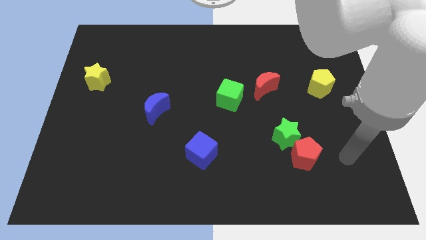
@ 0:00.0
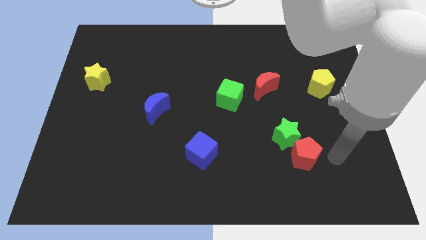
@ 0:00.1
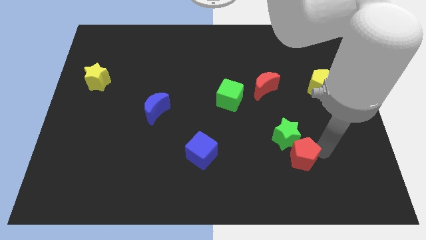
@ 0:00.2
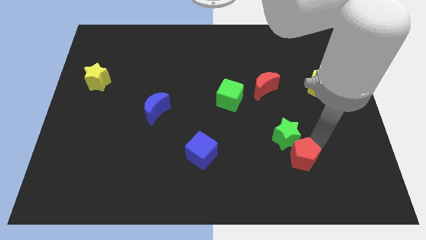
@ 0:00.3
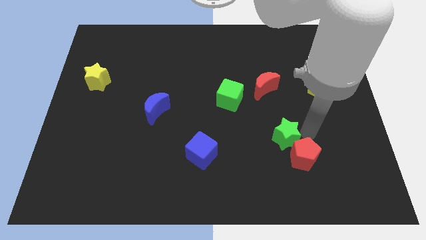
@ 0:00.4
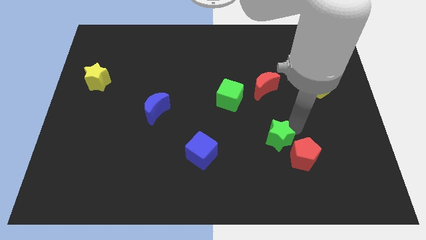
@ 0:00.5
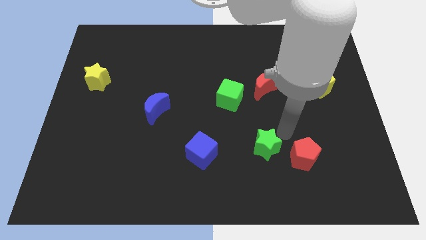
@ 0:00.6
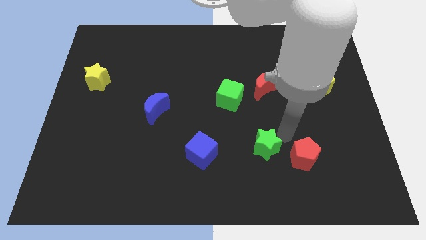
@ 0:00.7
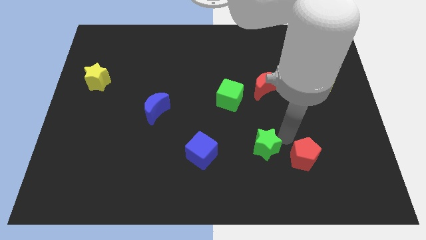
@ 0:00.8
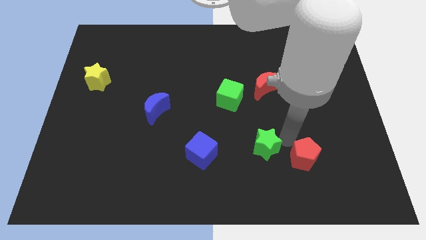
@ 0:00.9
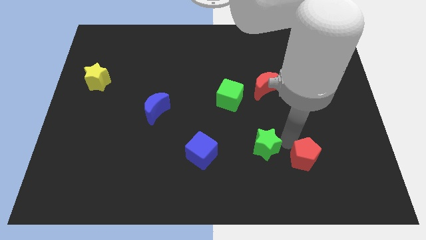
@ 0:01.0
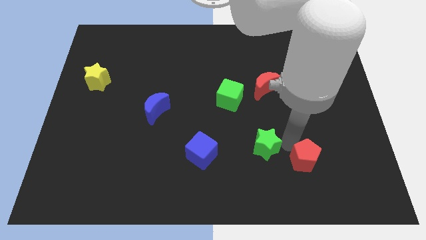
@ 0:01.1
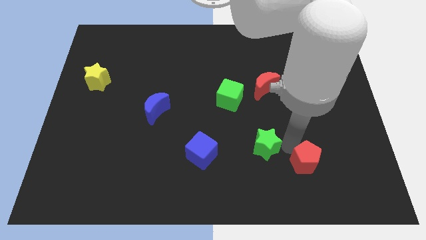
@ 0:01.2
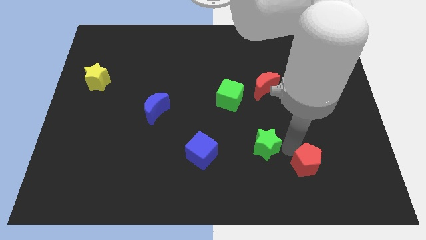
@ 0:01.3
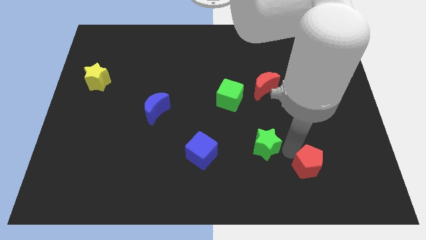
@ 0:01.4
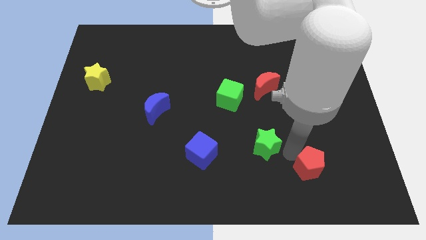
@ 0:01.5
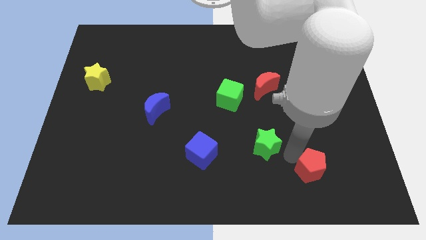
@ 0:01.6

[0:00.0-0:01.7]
pull the red pentagon apart from the green star

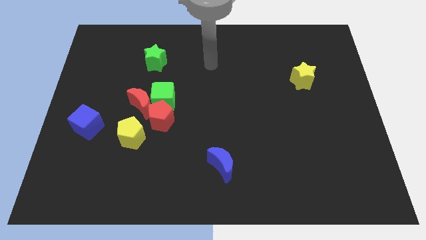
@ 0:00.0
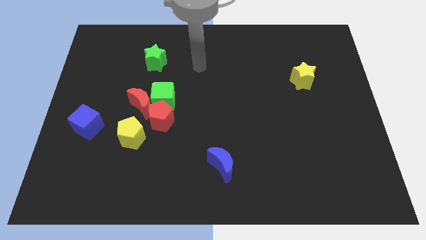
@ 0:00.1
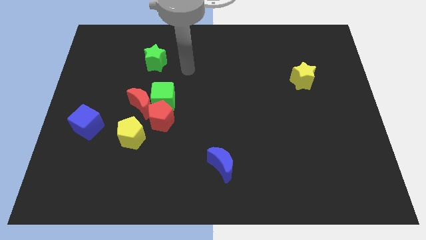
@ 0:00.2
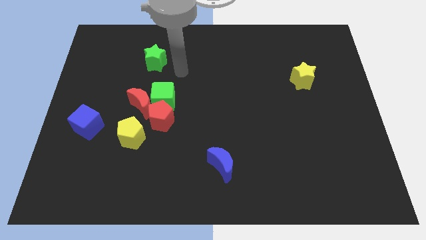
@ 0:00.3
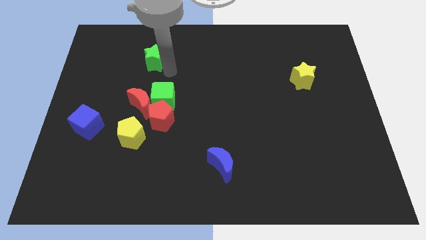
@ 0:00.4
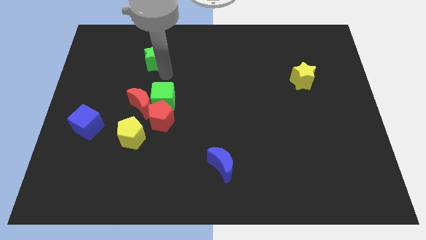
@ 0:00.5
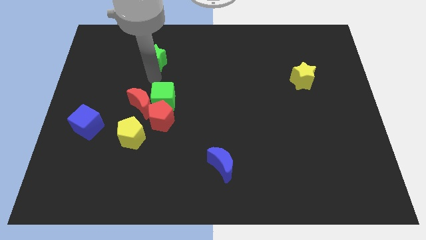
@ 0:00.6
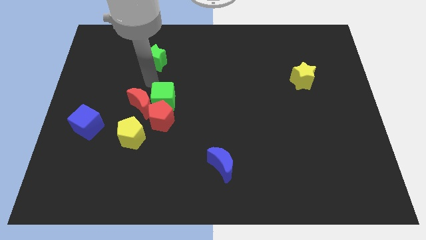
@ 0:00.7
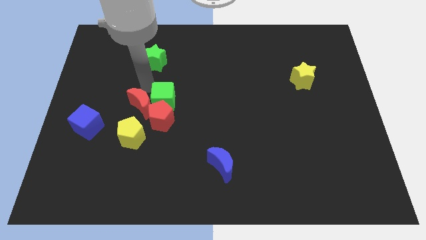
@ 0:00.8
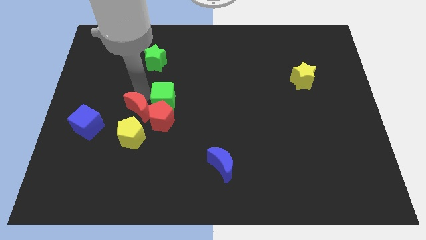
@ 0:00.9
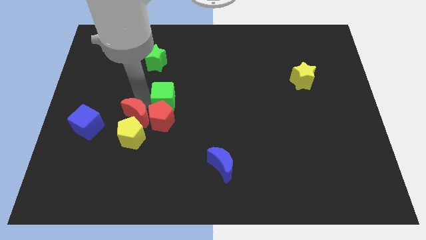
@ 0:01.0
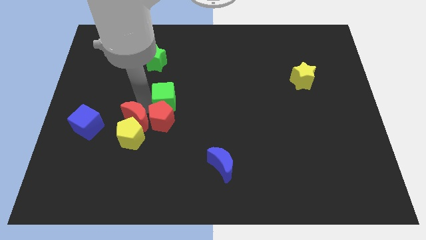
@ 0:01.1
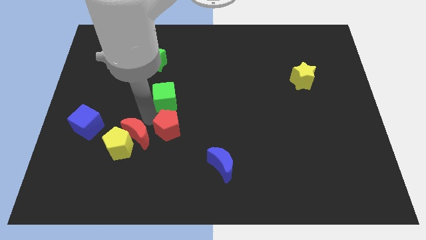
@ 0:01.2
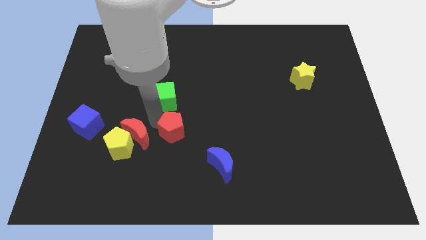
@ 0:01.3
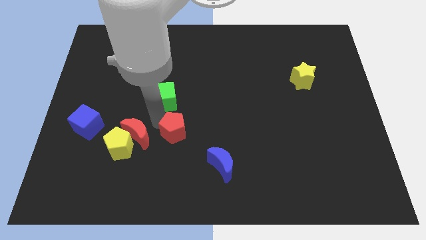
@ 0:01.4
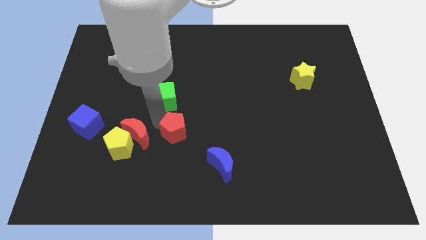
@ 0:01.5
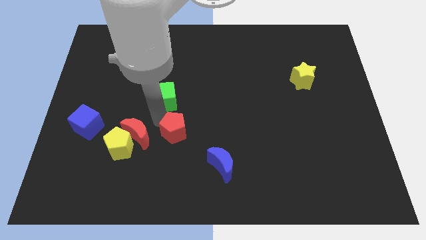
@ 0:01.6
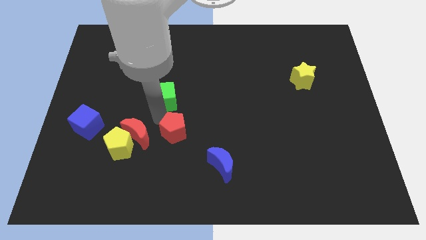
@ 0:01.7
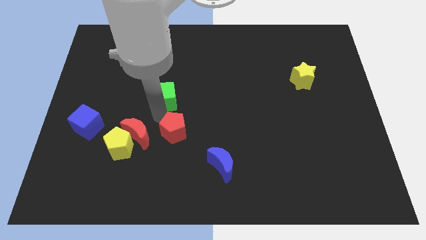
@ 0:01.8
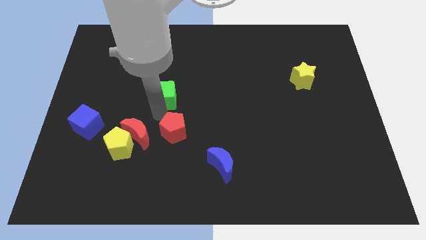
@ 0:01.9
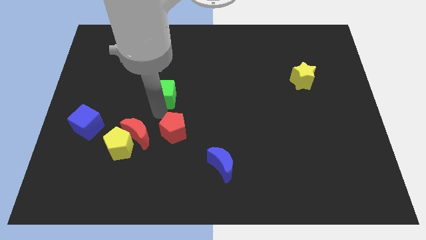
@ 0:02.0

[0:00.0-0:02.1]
move the green cube away from the red moon and red pentagon

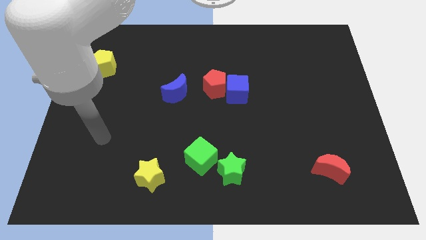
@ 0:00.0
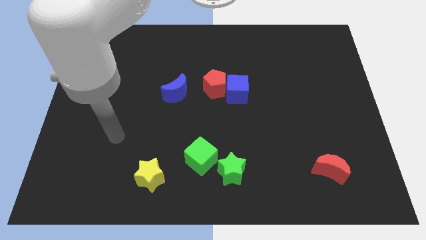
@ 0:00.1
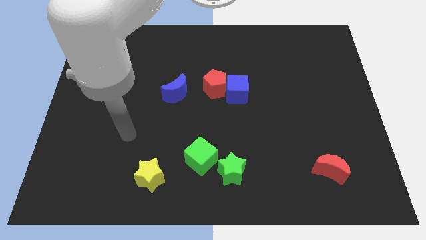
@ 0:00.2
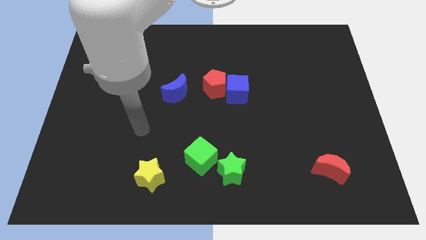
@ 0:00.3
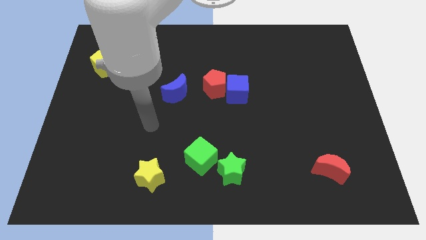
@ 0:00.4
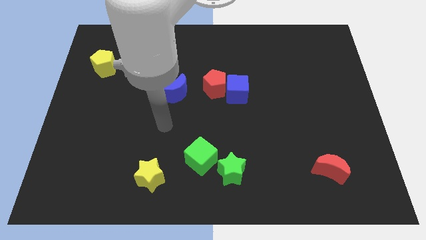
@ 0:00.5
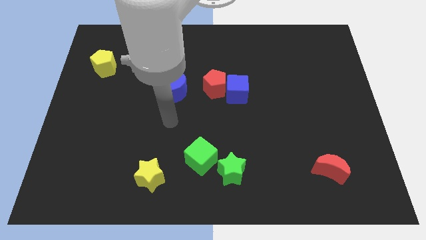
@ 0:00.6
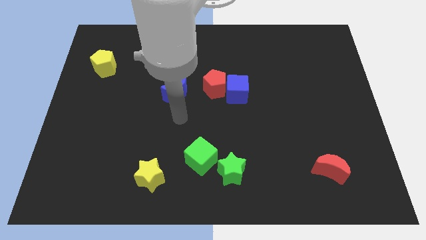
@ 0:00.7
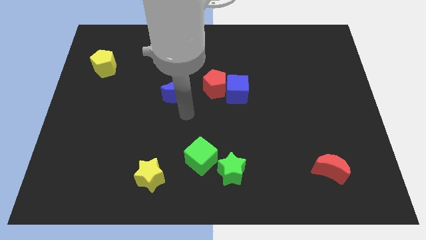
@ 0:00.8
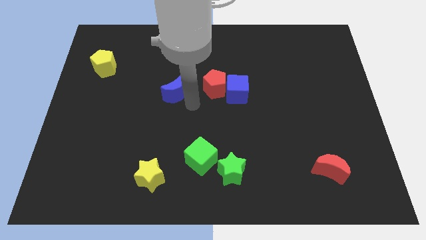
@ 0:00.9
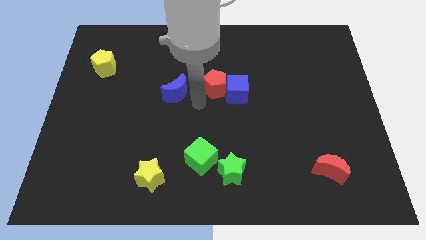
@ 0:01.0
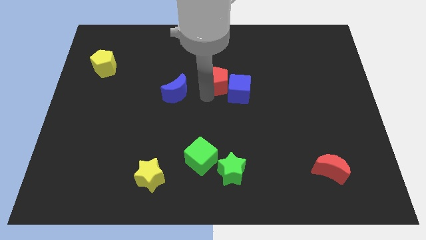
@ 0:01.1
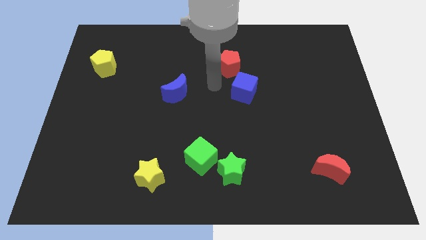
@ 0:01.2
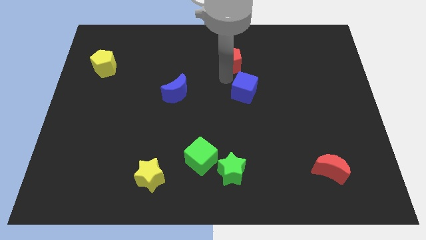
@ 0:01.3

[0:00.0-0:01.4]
pull the blue cube apart from the red pentagon

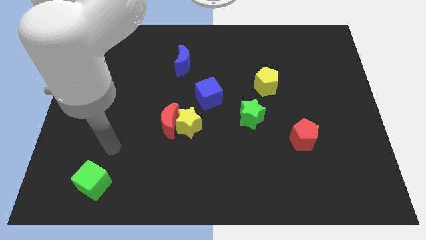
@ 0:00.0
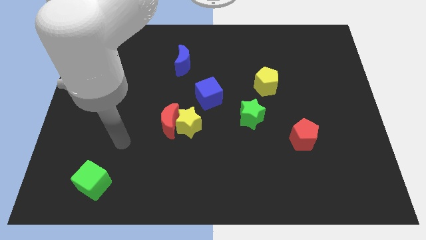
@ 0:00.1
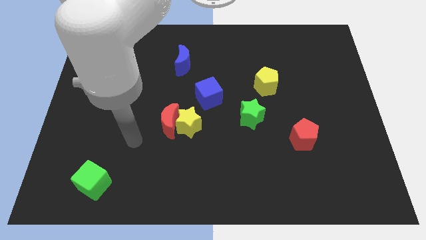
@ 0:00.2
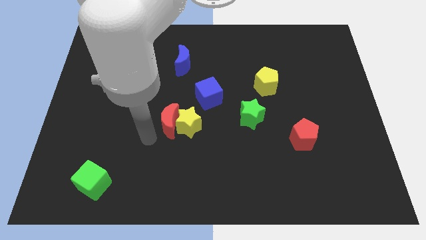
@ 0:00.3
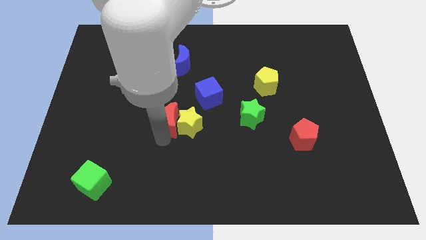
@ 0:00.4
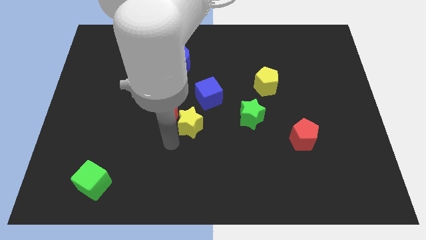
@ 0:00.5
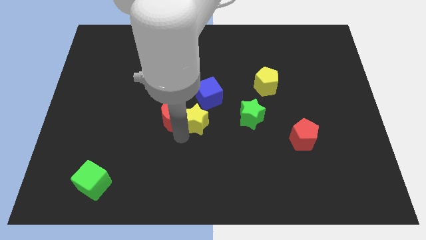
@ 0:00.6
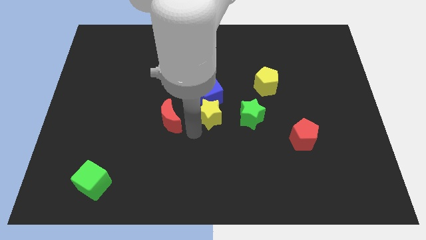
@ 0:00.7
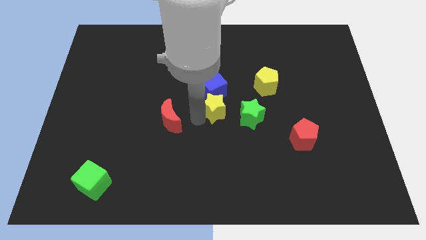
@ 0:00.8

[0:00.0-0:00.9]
pull the red moon apart from the yellow star

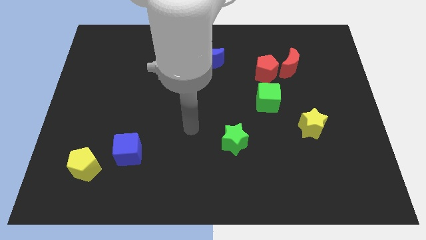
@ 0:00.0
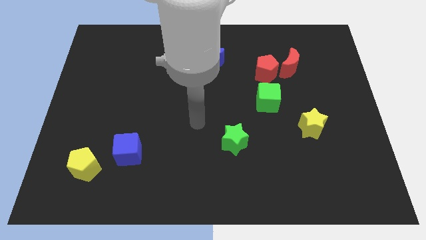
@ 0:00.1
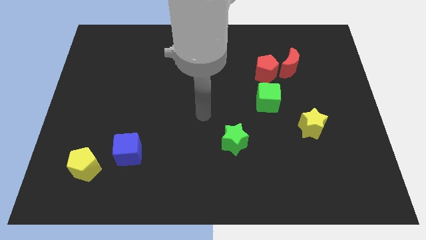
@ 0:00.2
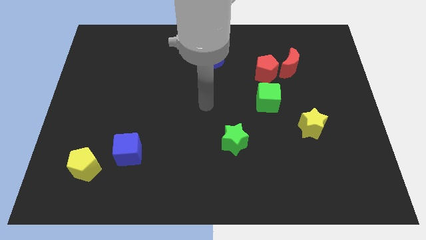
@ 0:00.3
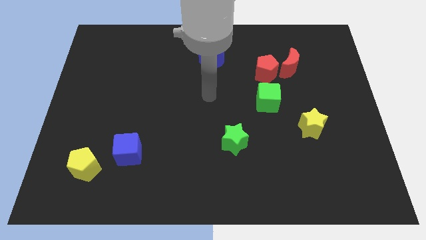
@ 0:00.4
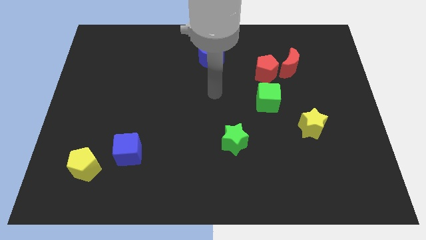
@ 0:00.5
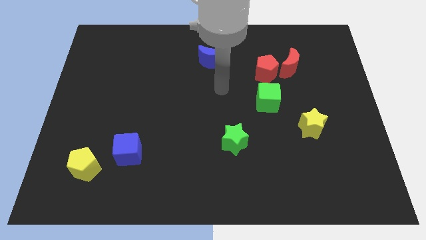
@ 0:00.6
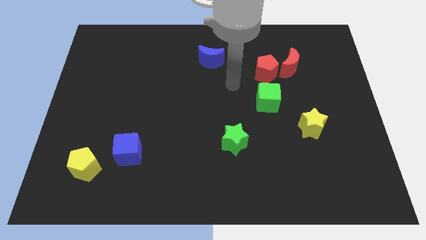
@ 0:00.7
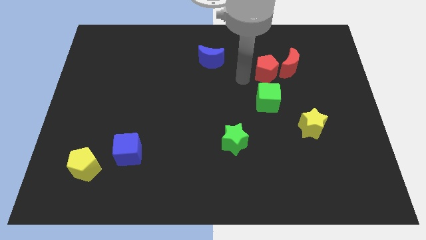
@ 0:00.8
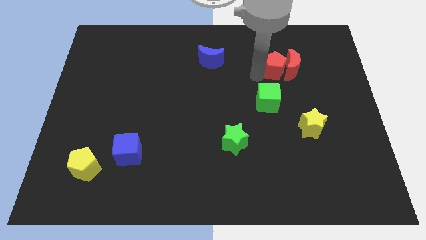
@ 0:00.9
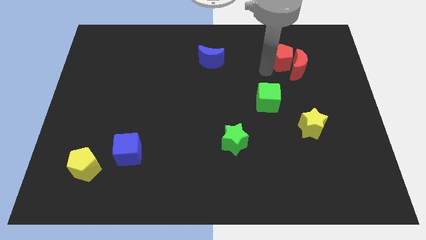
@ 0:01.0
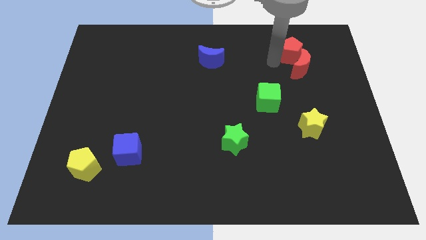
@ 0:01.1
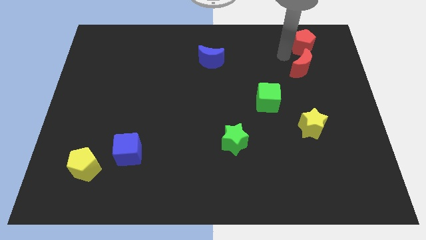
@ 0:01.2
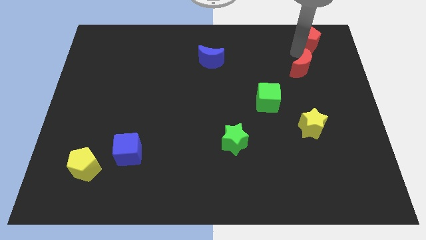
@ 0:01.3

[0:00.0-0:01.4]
separate the red moon from the red pentagon

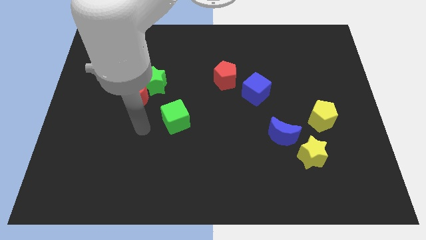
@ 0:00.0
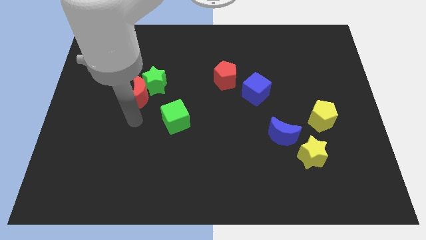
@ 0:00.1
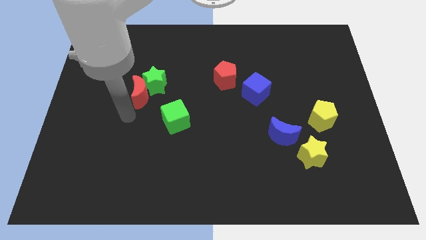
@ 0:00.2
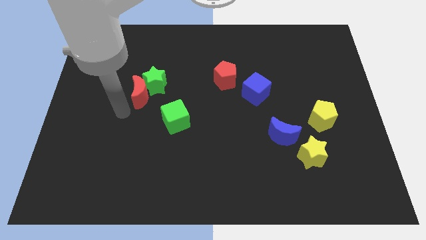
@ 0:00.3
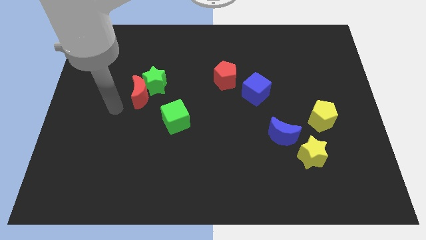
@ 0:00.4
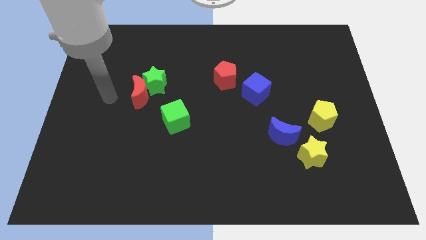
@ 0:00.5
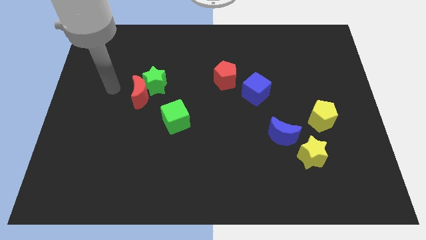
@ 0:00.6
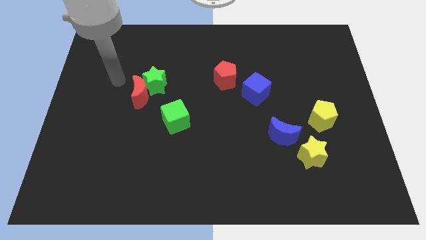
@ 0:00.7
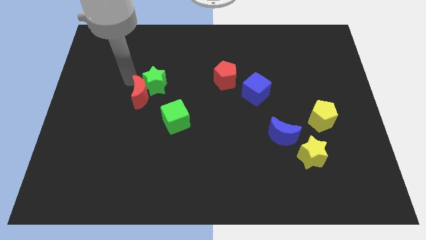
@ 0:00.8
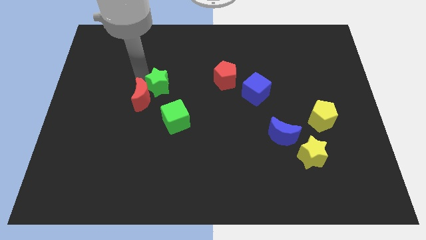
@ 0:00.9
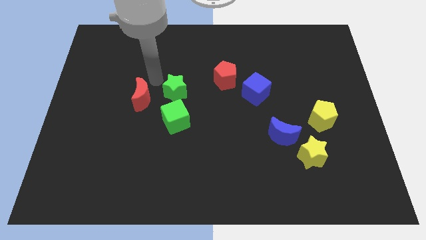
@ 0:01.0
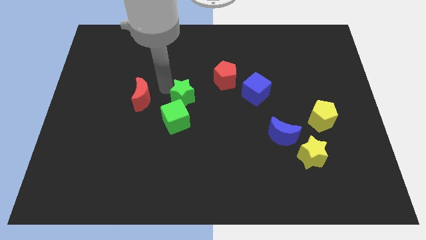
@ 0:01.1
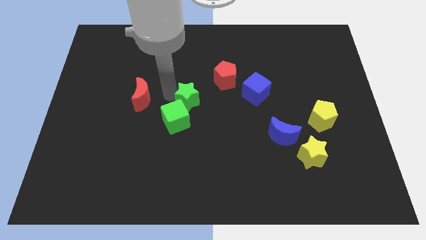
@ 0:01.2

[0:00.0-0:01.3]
separate the red moon from the green star

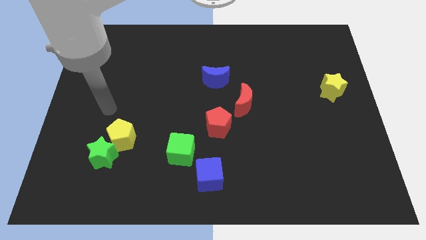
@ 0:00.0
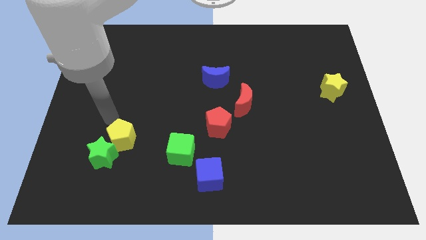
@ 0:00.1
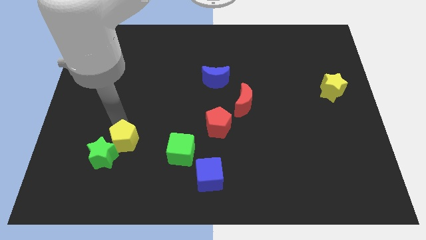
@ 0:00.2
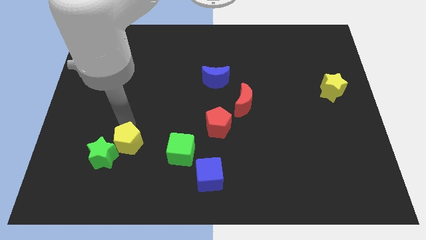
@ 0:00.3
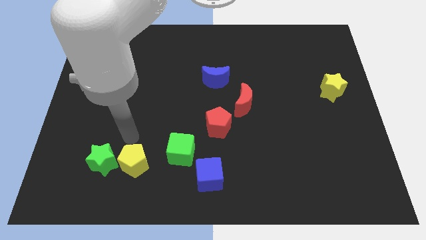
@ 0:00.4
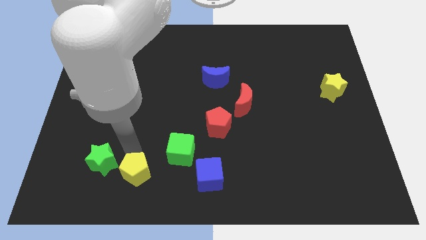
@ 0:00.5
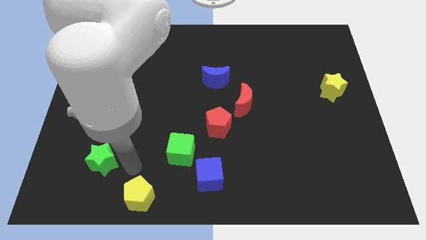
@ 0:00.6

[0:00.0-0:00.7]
pull the green star apart from the yellow pentagon
